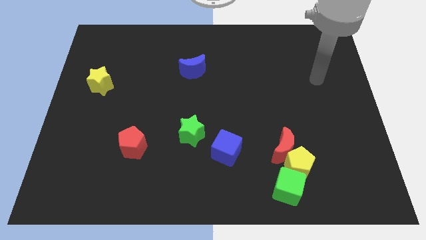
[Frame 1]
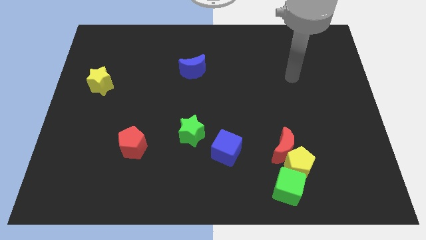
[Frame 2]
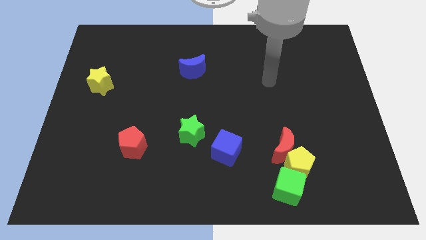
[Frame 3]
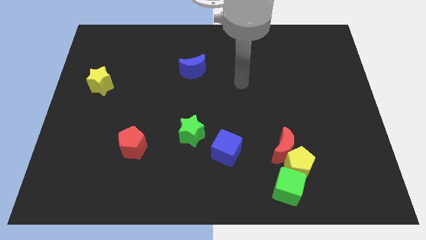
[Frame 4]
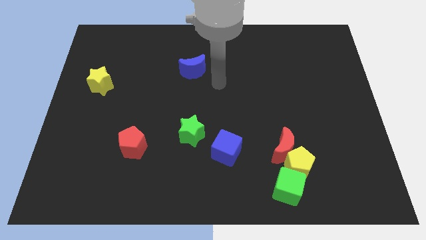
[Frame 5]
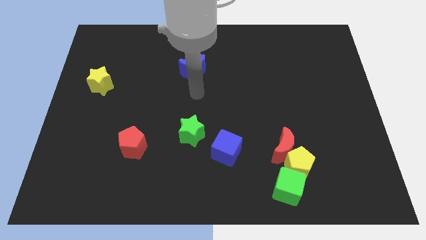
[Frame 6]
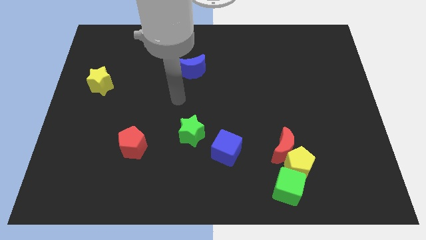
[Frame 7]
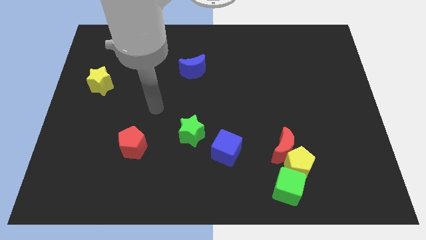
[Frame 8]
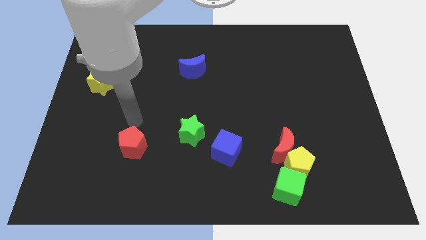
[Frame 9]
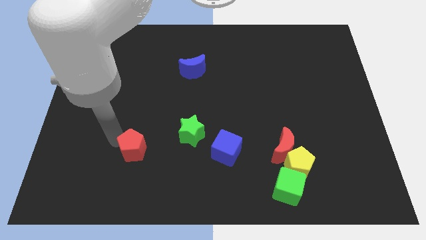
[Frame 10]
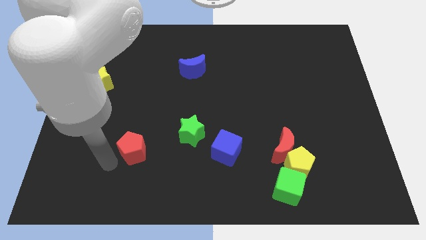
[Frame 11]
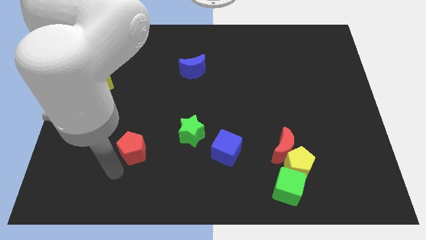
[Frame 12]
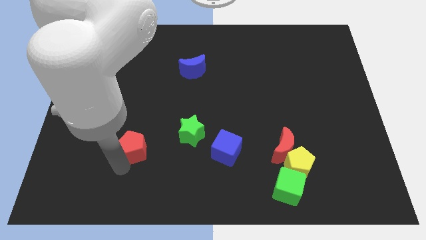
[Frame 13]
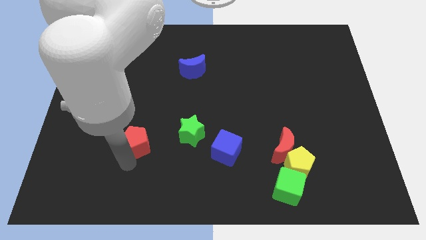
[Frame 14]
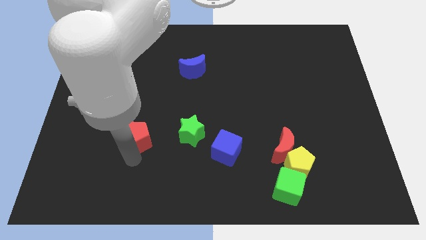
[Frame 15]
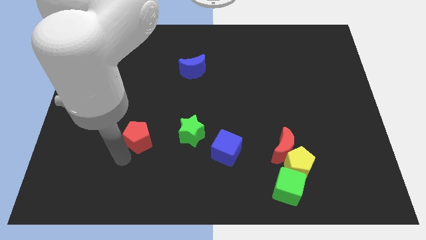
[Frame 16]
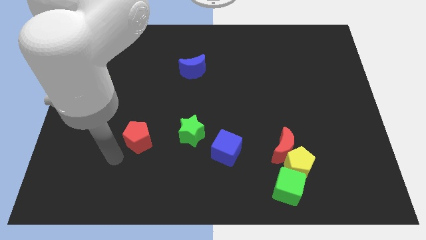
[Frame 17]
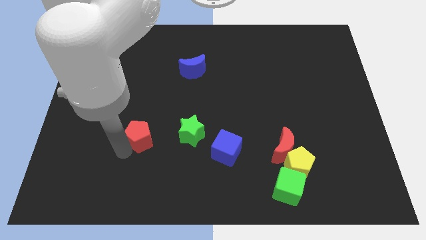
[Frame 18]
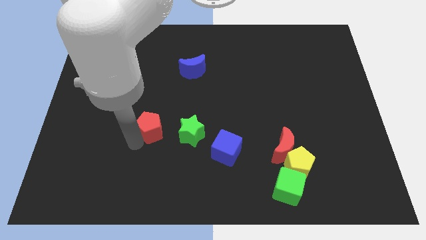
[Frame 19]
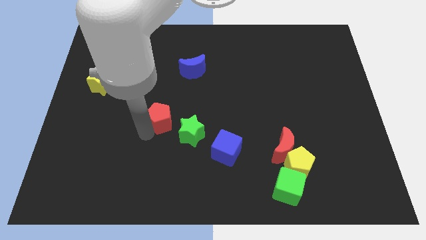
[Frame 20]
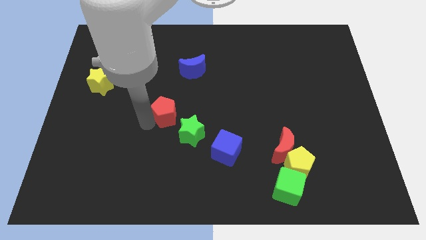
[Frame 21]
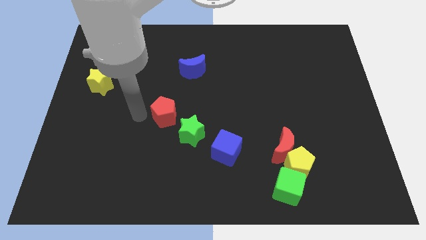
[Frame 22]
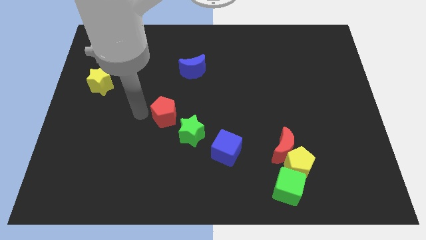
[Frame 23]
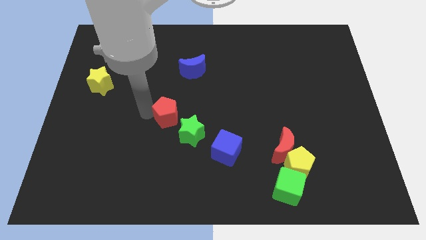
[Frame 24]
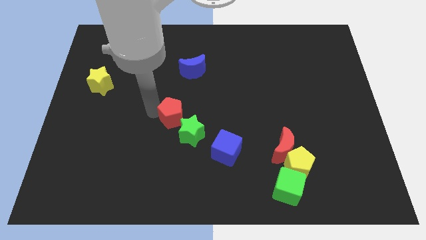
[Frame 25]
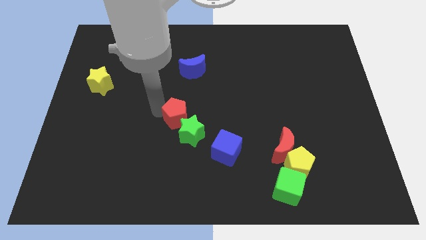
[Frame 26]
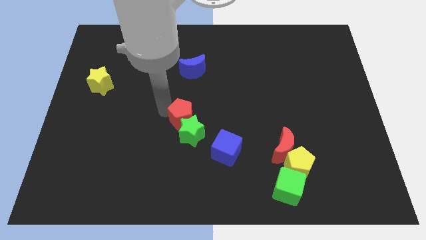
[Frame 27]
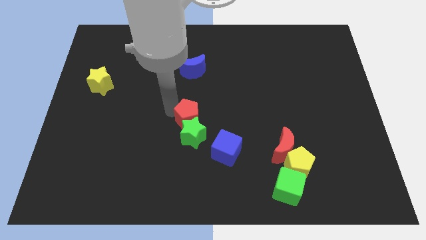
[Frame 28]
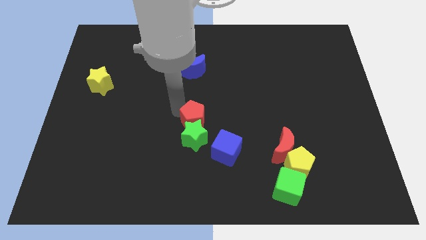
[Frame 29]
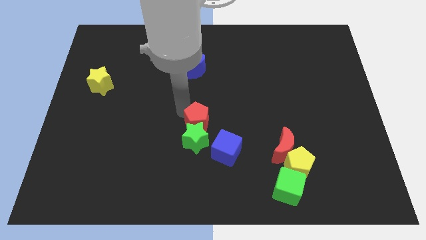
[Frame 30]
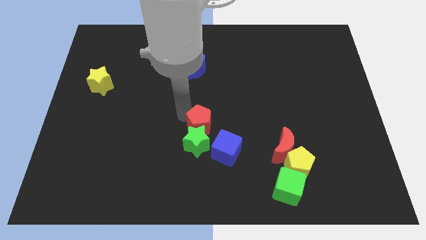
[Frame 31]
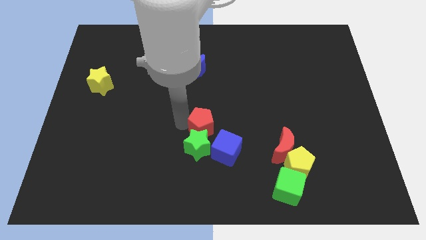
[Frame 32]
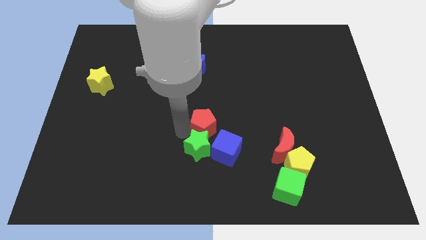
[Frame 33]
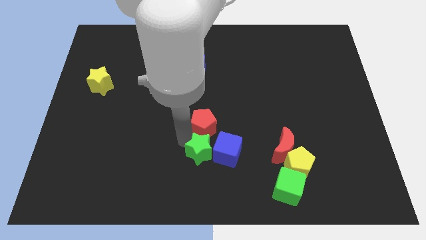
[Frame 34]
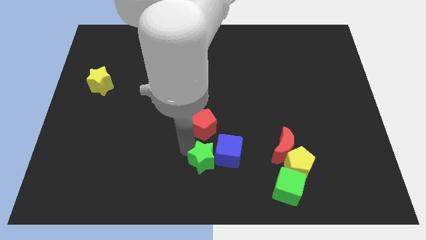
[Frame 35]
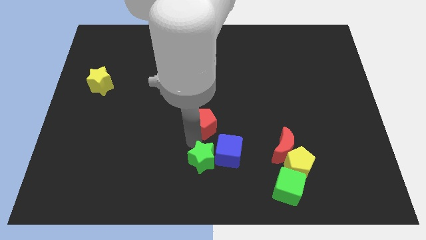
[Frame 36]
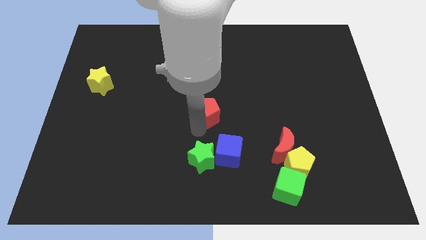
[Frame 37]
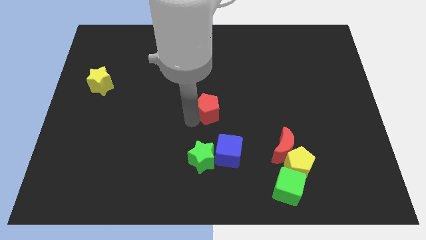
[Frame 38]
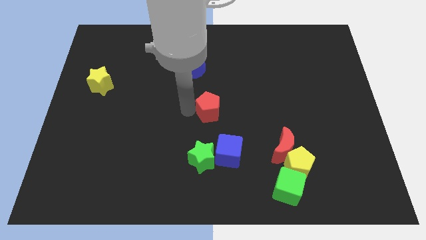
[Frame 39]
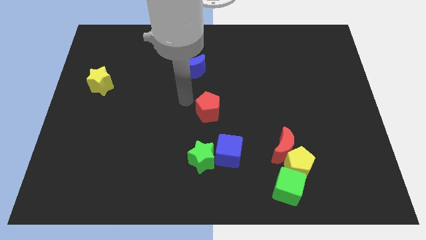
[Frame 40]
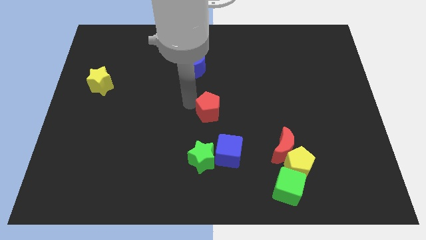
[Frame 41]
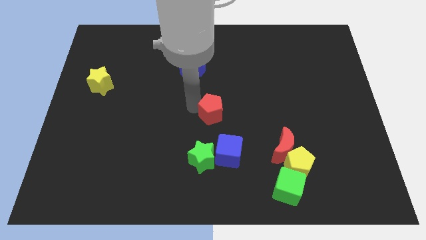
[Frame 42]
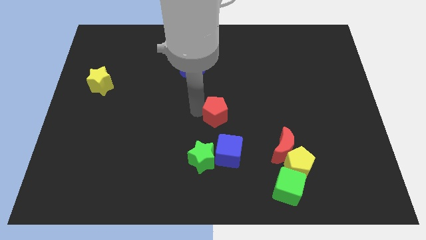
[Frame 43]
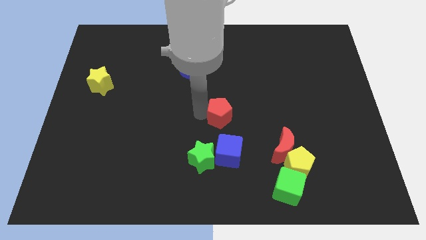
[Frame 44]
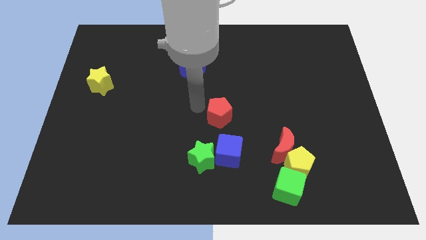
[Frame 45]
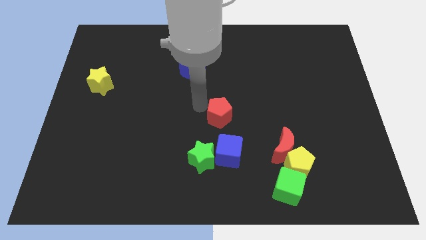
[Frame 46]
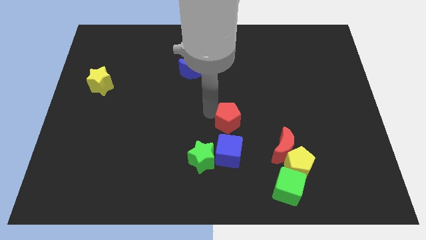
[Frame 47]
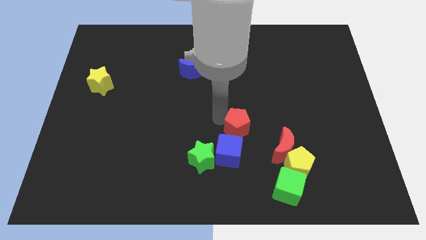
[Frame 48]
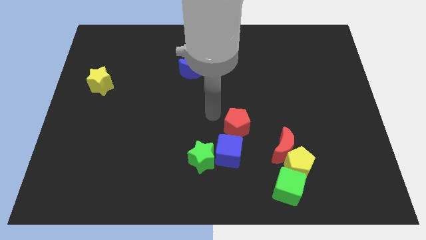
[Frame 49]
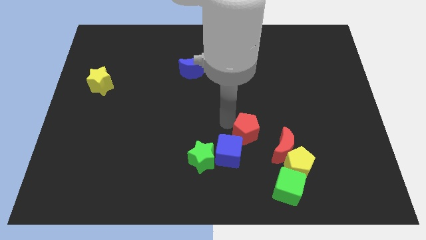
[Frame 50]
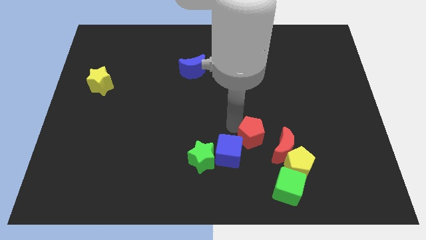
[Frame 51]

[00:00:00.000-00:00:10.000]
slide the red pentagon to the top left side of the yellow pentagon

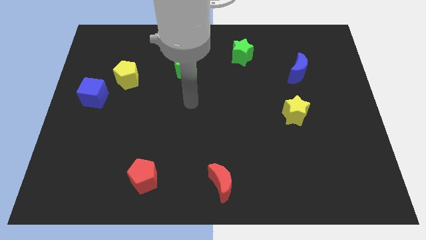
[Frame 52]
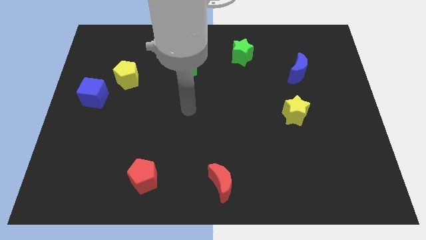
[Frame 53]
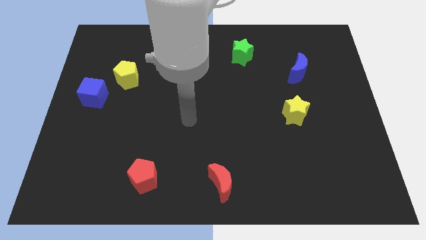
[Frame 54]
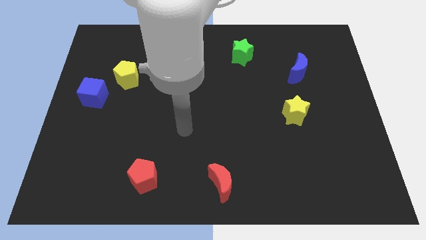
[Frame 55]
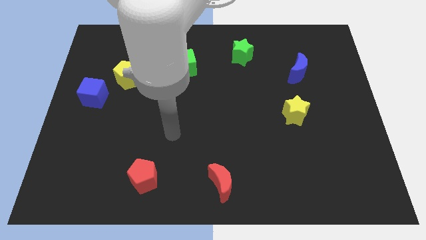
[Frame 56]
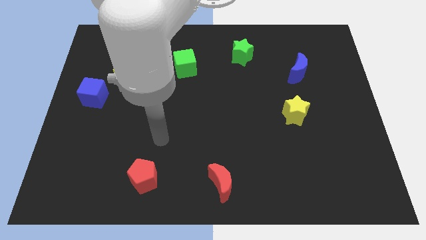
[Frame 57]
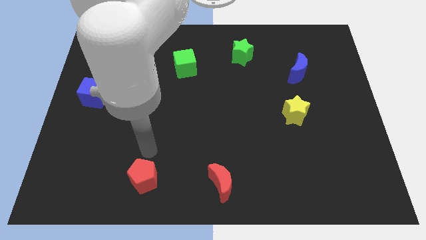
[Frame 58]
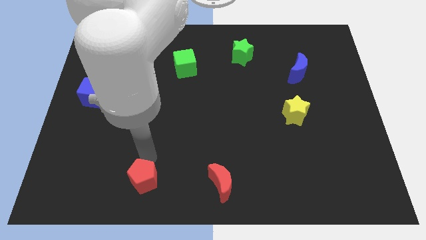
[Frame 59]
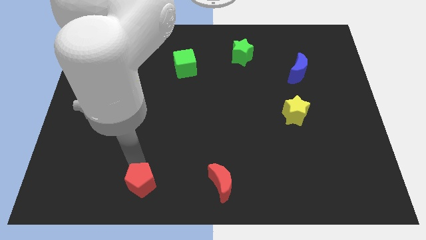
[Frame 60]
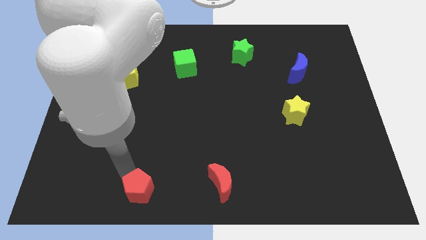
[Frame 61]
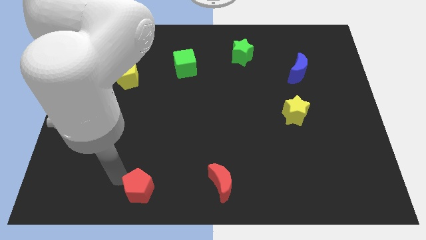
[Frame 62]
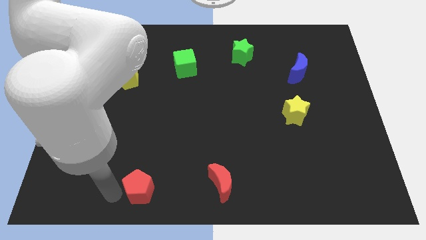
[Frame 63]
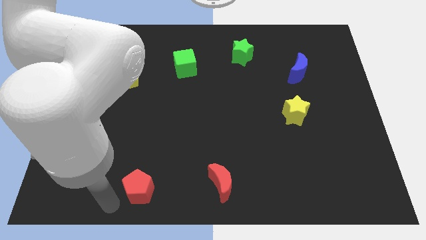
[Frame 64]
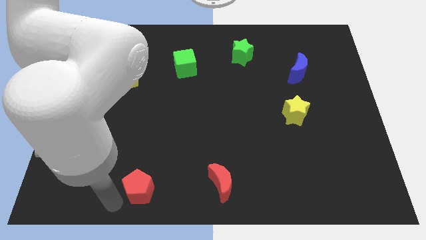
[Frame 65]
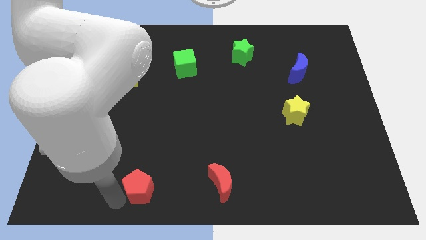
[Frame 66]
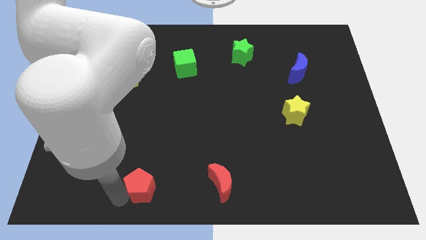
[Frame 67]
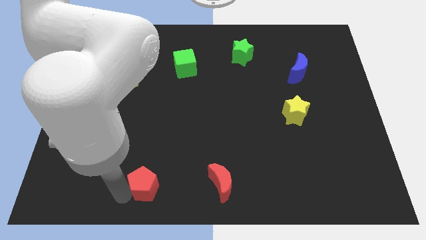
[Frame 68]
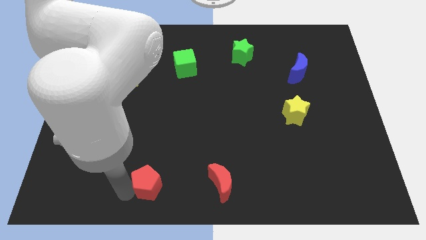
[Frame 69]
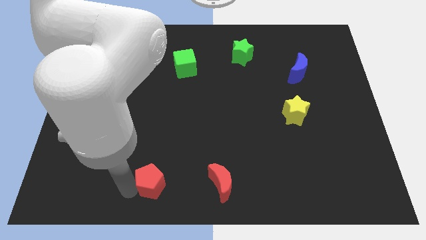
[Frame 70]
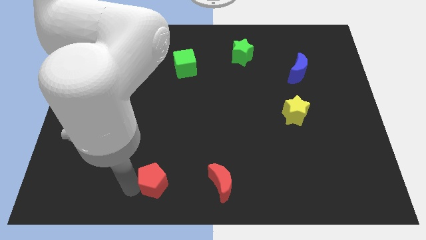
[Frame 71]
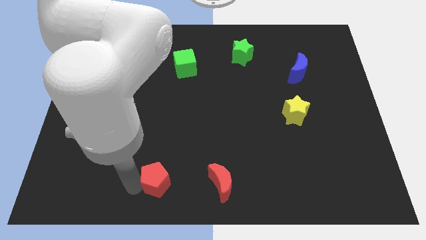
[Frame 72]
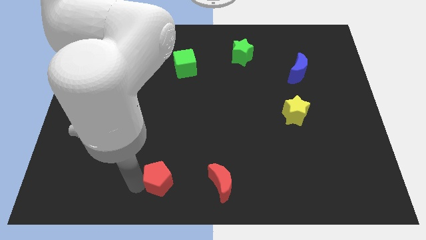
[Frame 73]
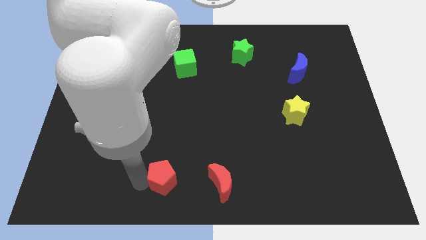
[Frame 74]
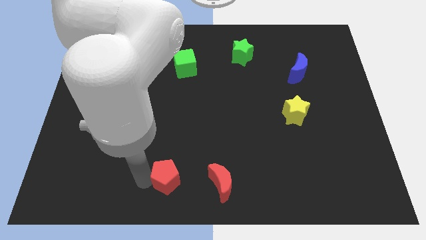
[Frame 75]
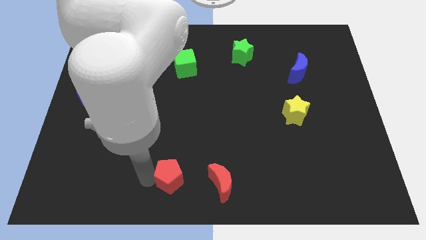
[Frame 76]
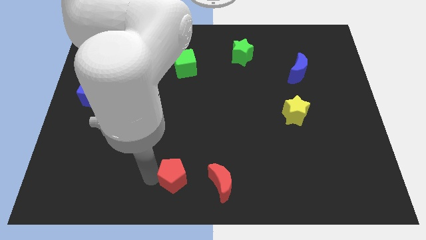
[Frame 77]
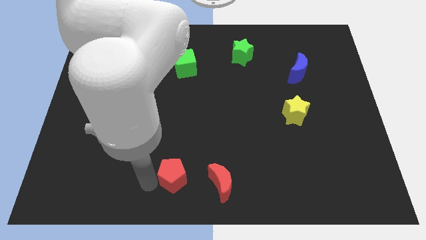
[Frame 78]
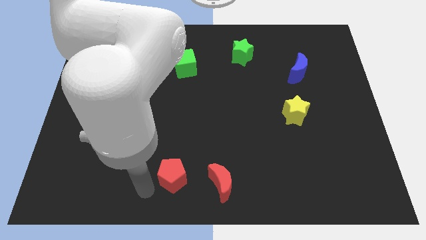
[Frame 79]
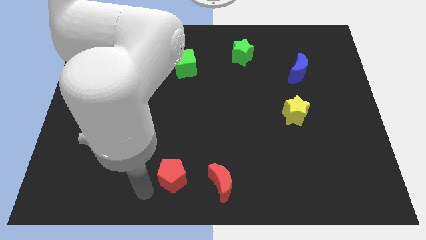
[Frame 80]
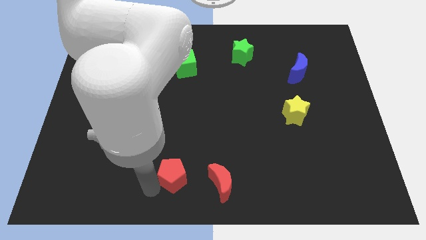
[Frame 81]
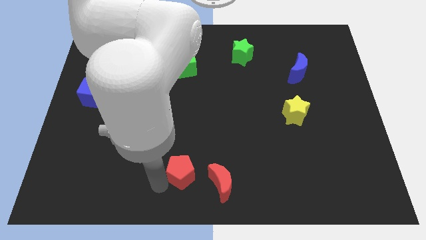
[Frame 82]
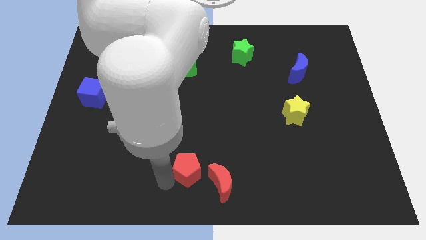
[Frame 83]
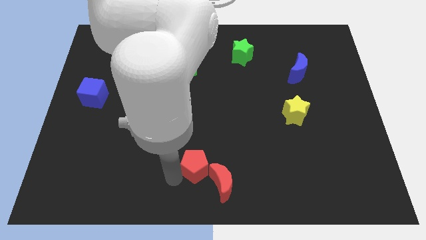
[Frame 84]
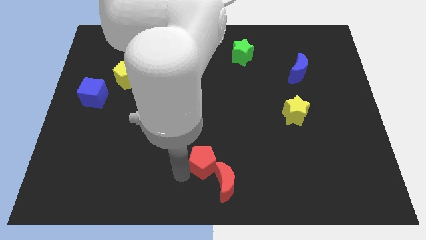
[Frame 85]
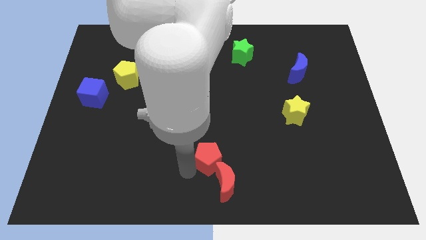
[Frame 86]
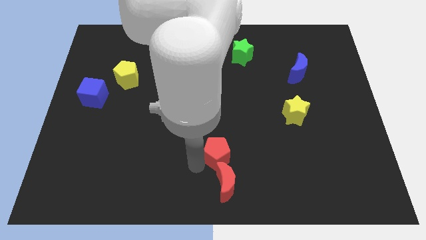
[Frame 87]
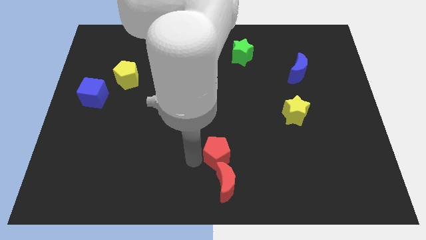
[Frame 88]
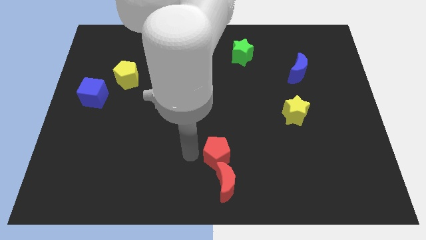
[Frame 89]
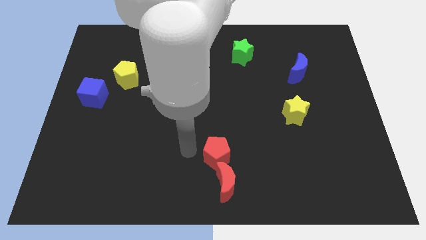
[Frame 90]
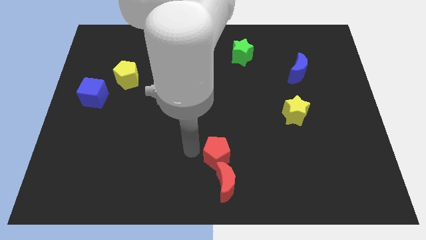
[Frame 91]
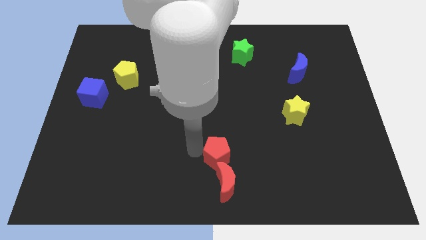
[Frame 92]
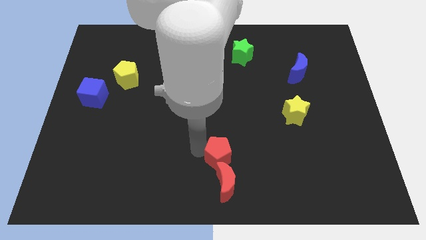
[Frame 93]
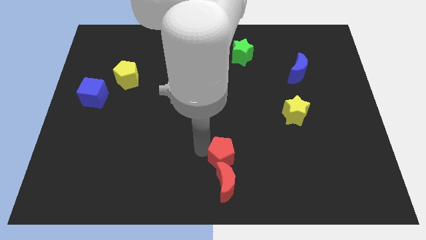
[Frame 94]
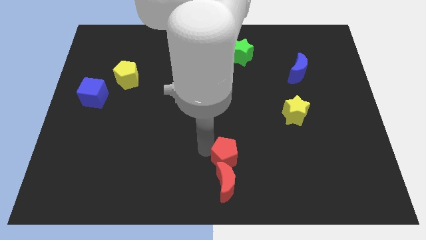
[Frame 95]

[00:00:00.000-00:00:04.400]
put the red pentagon to the top right side of the red moon
